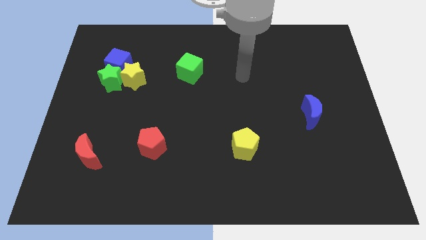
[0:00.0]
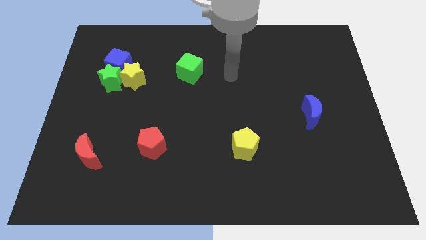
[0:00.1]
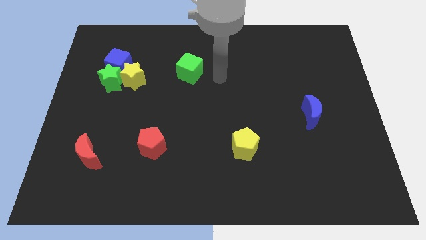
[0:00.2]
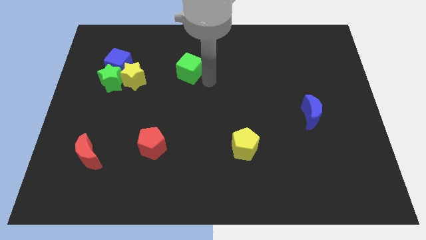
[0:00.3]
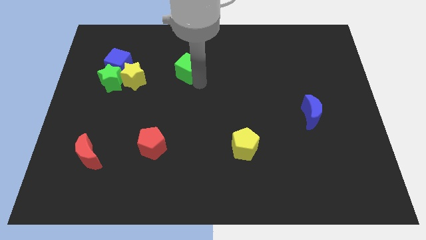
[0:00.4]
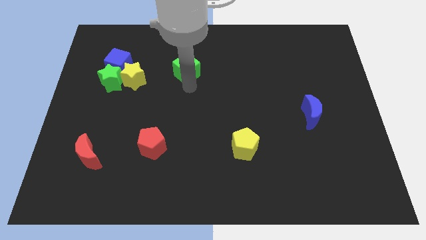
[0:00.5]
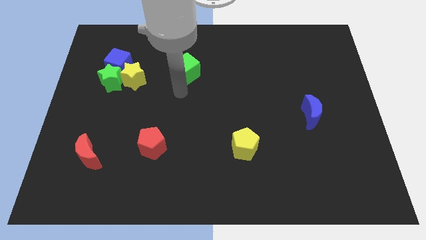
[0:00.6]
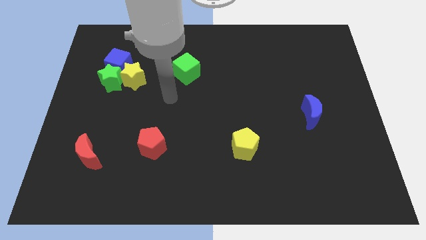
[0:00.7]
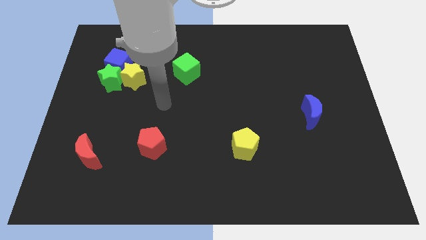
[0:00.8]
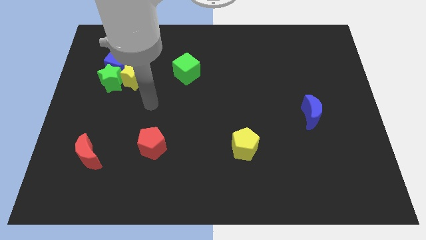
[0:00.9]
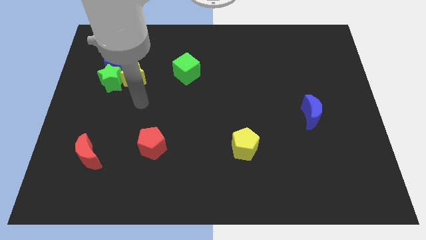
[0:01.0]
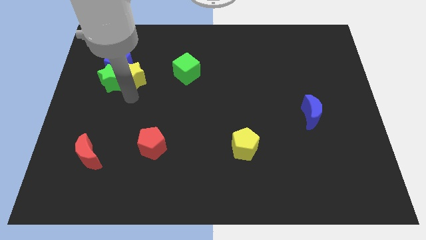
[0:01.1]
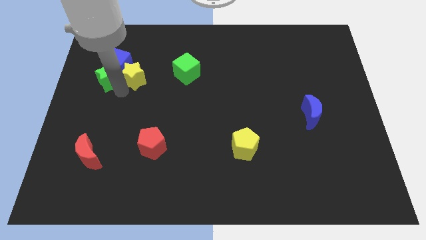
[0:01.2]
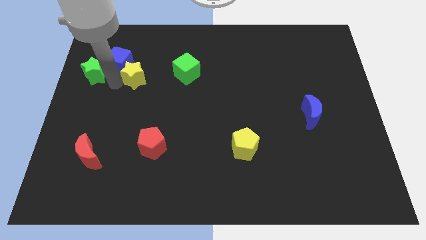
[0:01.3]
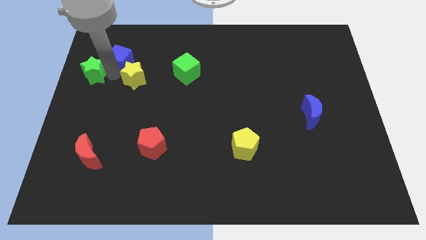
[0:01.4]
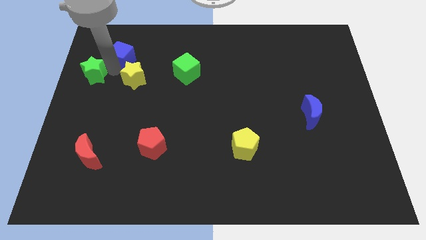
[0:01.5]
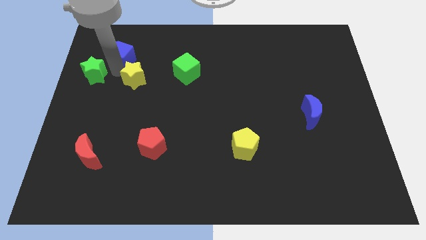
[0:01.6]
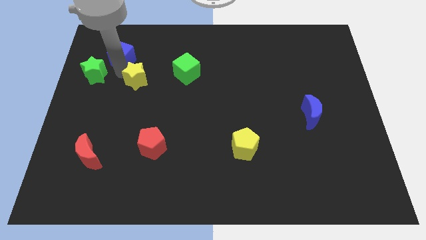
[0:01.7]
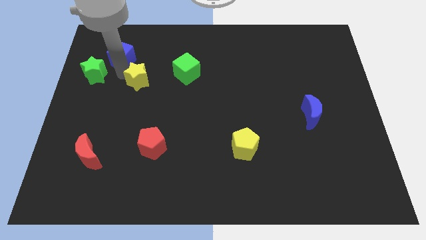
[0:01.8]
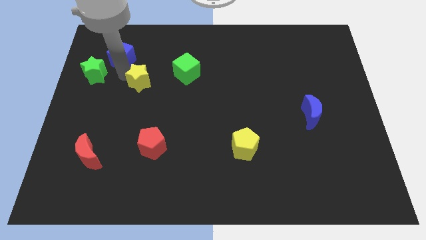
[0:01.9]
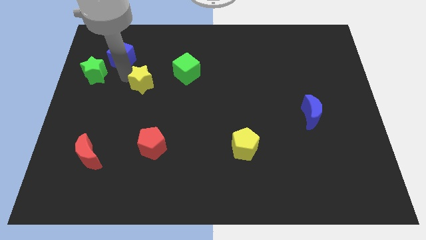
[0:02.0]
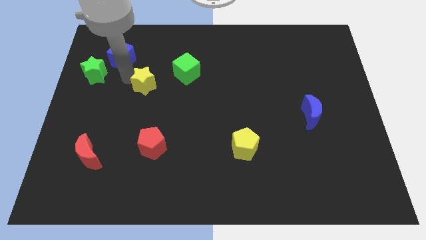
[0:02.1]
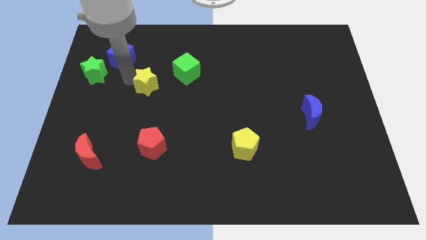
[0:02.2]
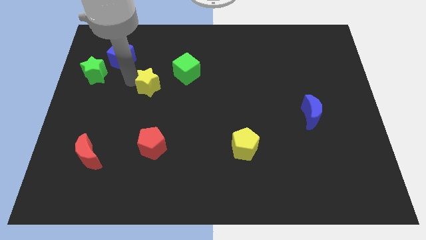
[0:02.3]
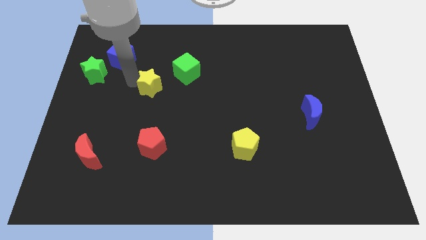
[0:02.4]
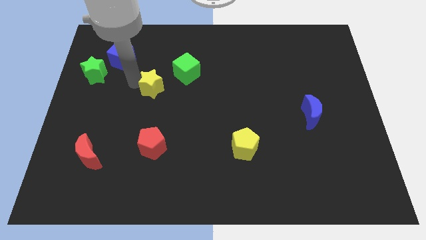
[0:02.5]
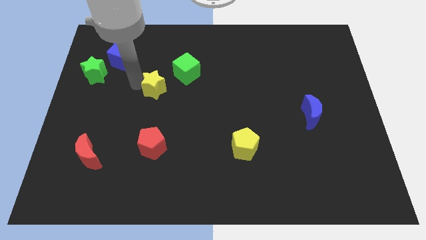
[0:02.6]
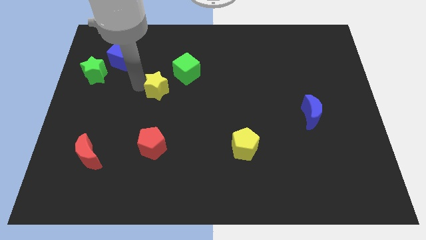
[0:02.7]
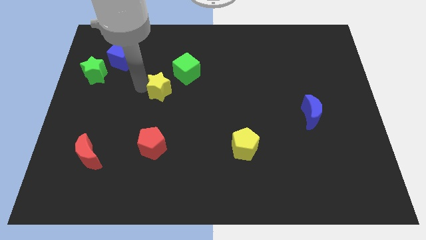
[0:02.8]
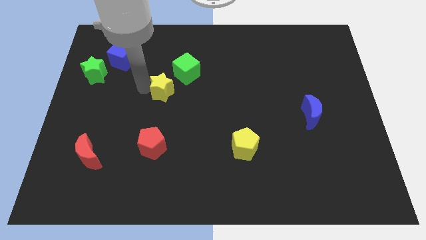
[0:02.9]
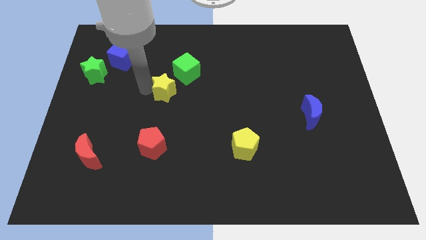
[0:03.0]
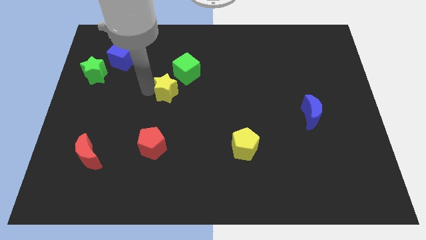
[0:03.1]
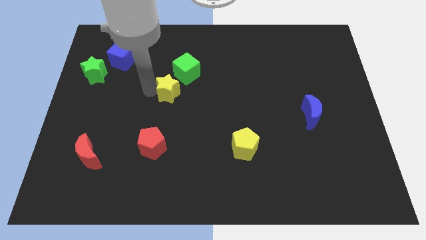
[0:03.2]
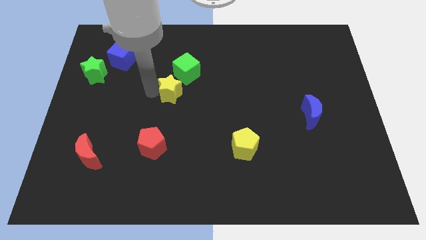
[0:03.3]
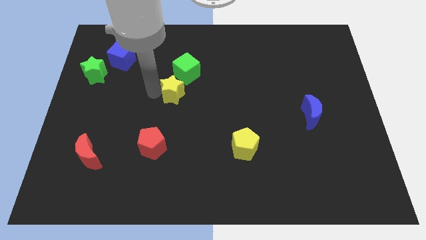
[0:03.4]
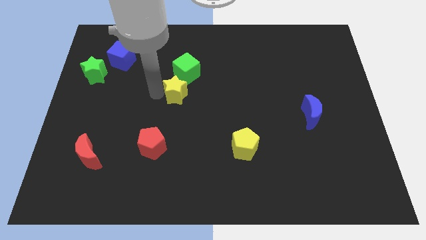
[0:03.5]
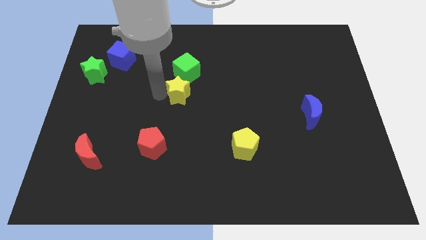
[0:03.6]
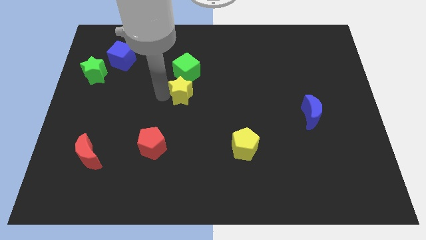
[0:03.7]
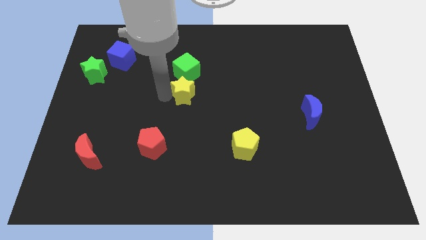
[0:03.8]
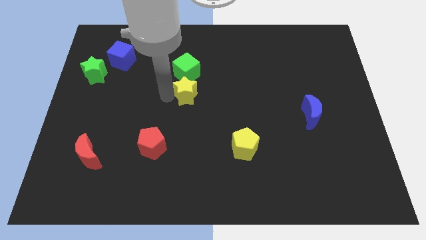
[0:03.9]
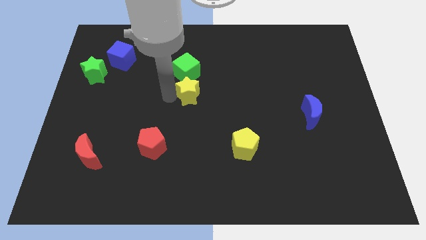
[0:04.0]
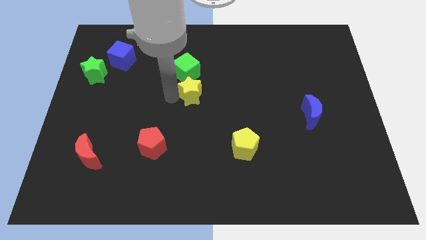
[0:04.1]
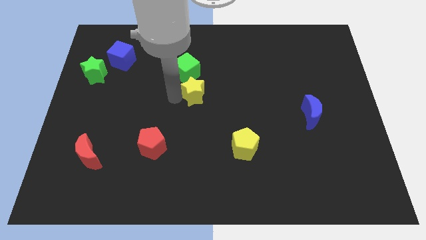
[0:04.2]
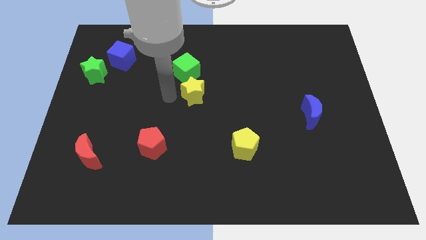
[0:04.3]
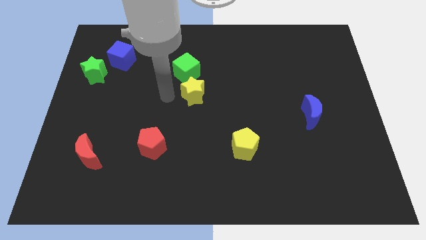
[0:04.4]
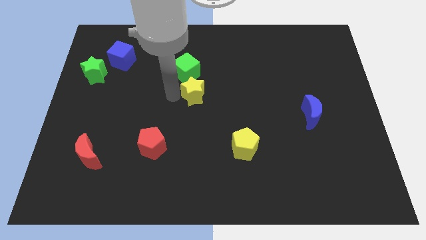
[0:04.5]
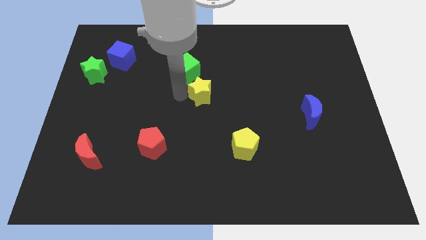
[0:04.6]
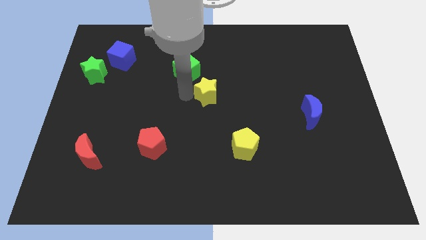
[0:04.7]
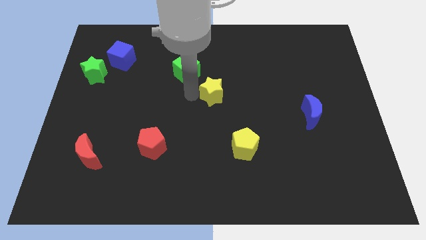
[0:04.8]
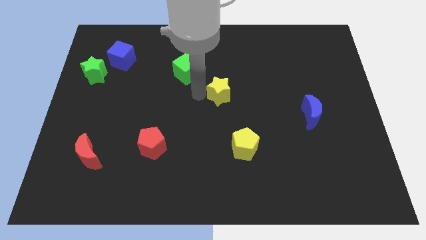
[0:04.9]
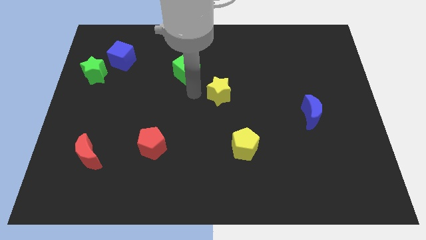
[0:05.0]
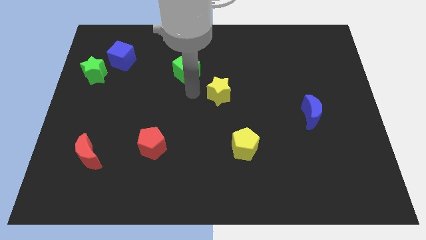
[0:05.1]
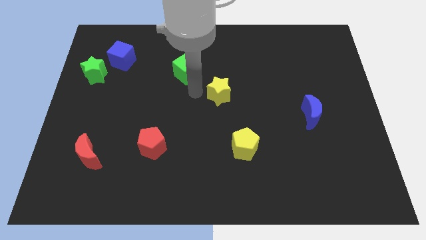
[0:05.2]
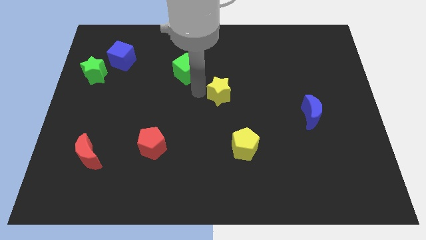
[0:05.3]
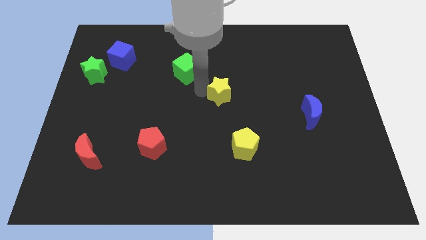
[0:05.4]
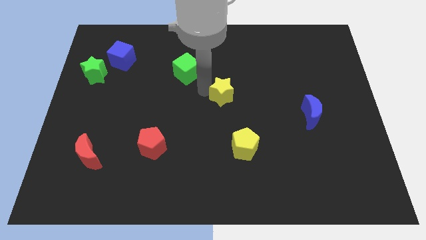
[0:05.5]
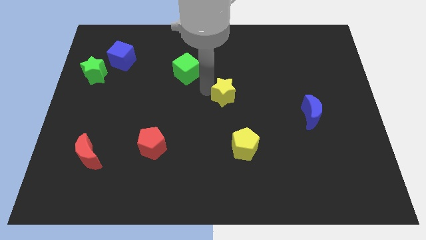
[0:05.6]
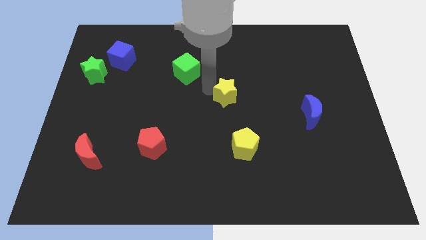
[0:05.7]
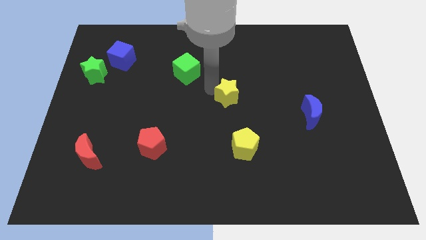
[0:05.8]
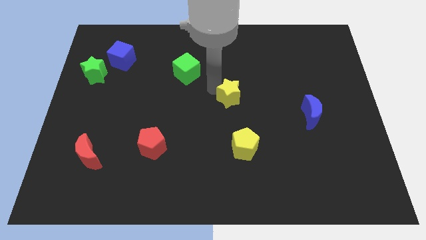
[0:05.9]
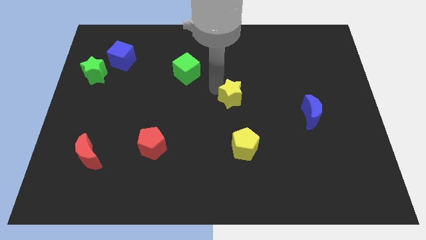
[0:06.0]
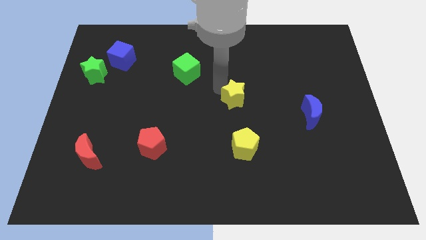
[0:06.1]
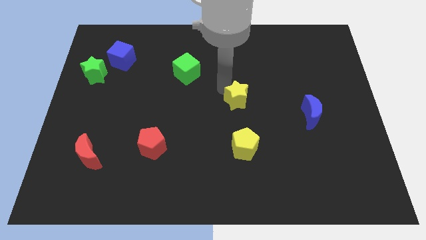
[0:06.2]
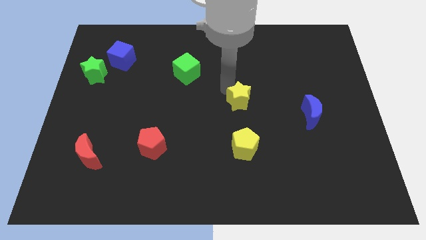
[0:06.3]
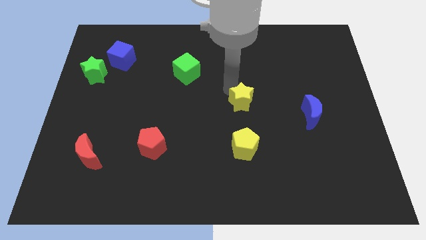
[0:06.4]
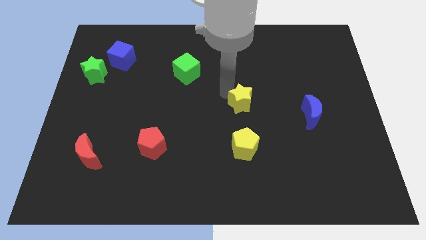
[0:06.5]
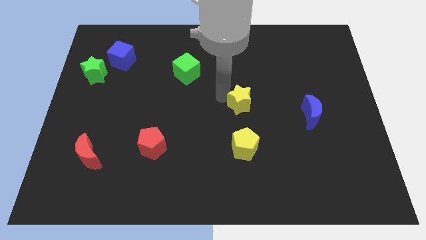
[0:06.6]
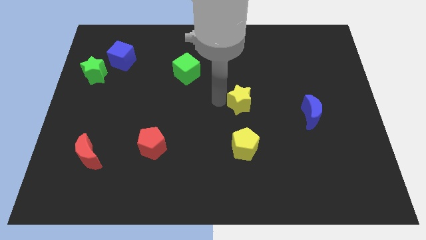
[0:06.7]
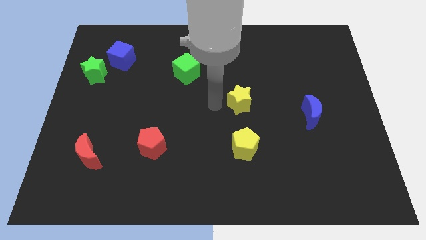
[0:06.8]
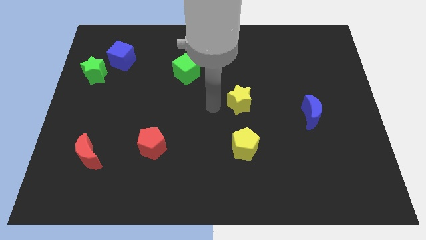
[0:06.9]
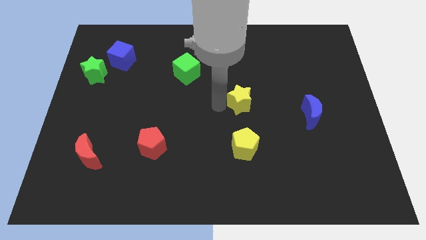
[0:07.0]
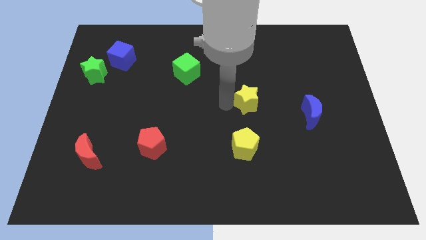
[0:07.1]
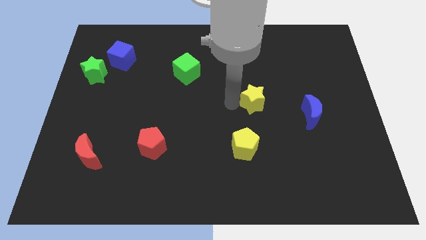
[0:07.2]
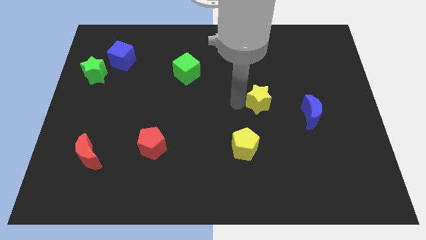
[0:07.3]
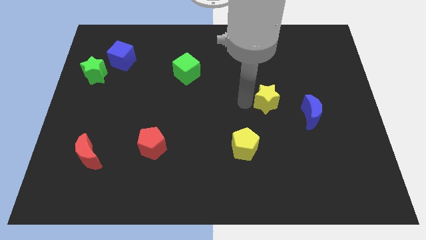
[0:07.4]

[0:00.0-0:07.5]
slide the yellow star diagonally up and to the left of the blue moon

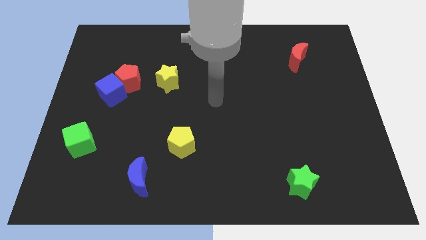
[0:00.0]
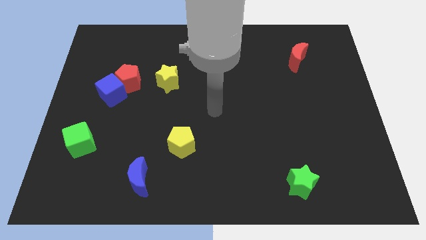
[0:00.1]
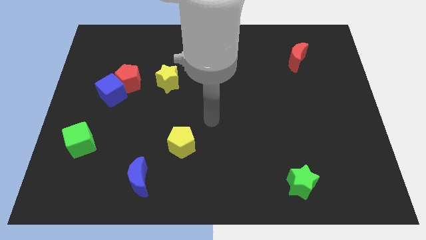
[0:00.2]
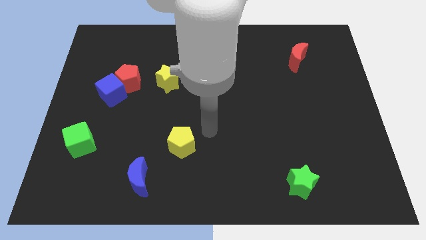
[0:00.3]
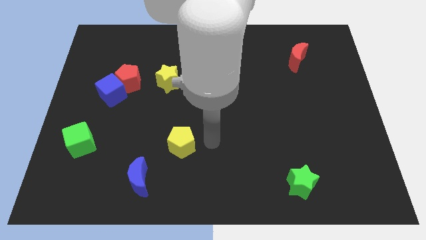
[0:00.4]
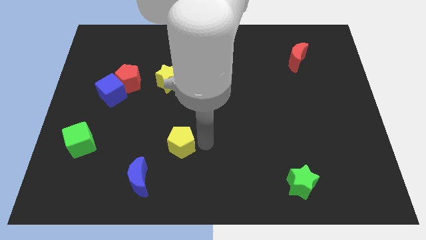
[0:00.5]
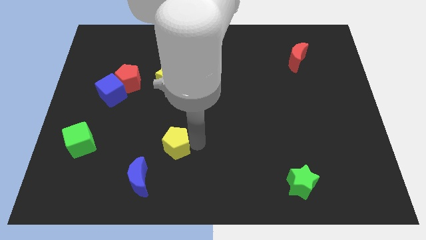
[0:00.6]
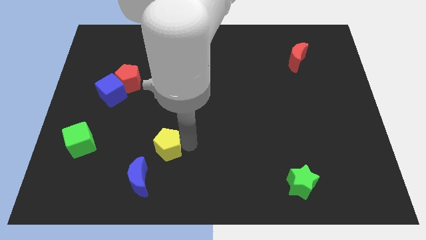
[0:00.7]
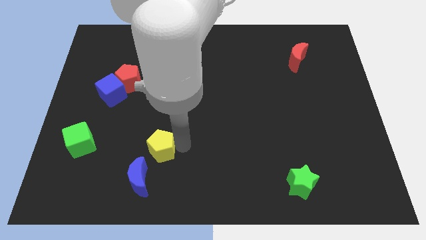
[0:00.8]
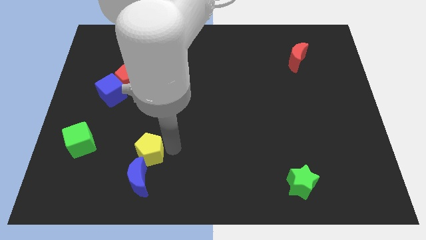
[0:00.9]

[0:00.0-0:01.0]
put the yellow pentagon just right of the green cube
